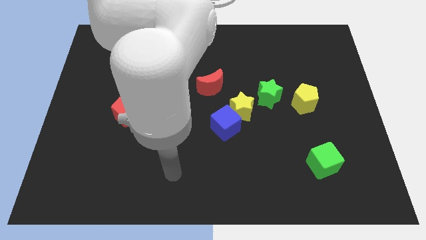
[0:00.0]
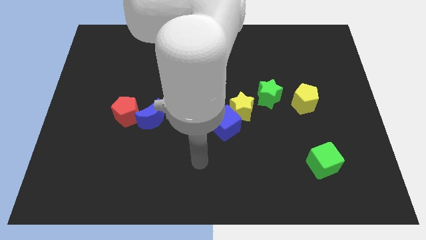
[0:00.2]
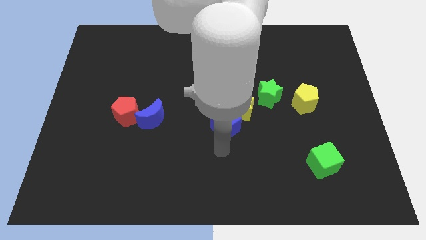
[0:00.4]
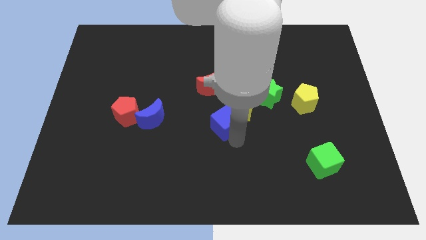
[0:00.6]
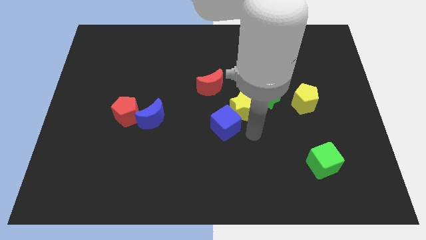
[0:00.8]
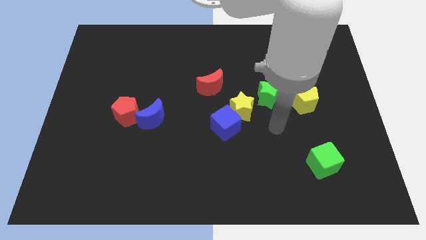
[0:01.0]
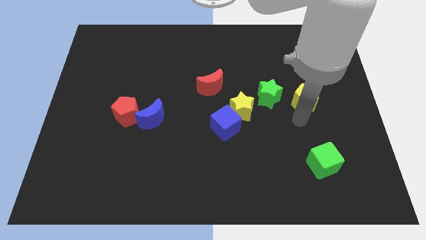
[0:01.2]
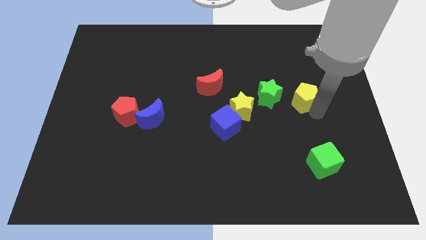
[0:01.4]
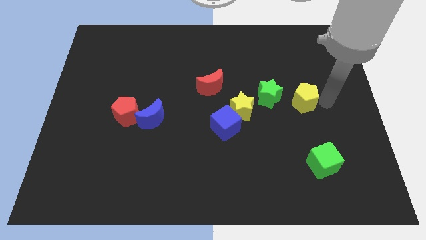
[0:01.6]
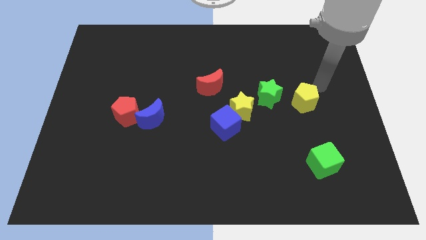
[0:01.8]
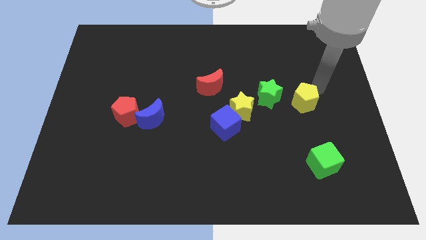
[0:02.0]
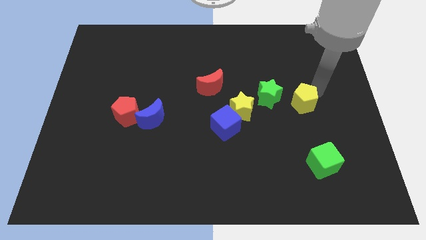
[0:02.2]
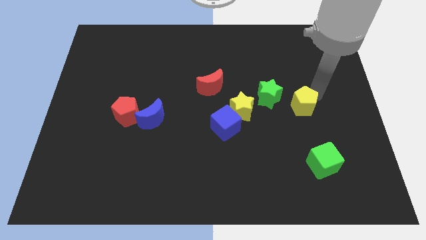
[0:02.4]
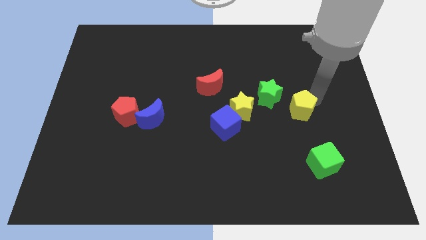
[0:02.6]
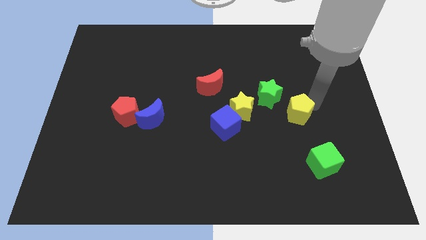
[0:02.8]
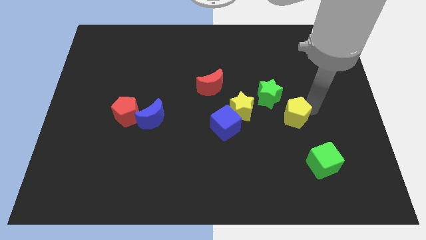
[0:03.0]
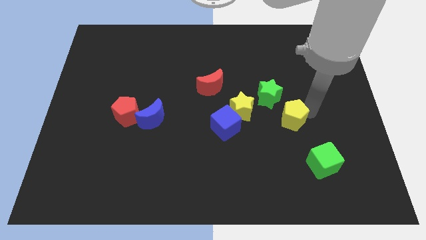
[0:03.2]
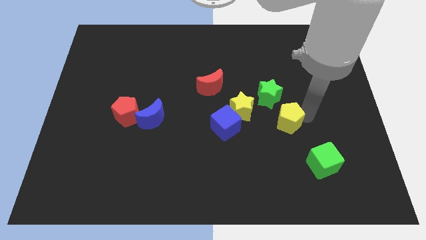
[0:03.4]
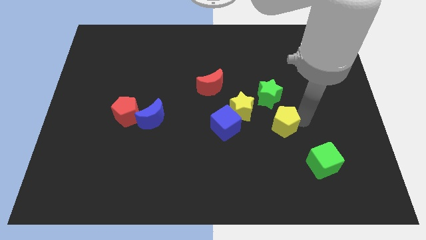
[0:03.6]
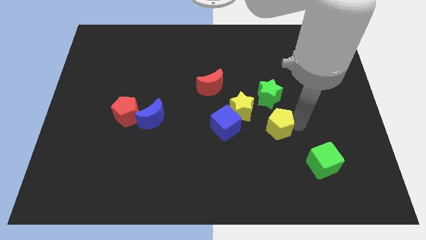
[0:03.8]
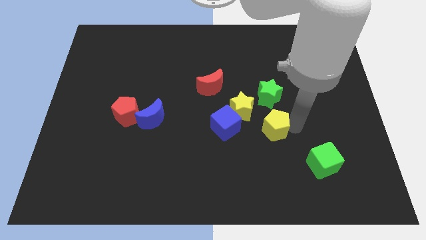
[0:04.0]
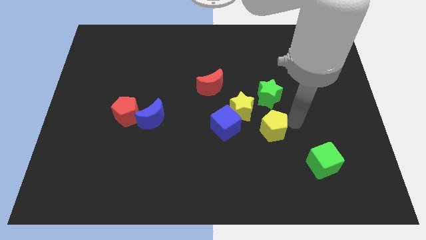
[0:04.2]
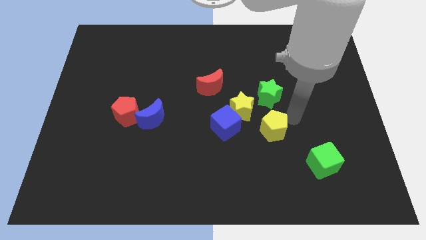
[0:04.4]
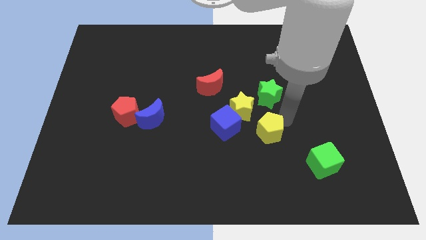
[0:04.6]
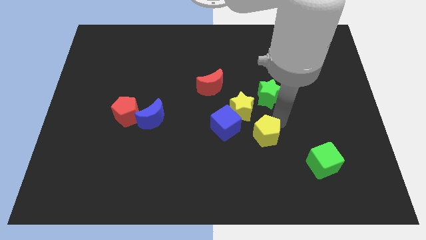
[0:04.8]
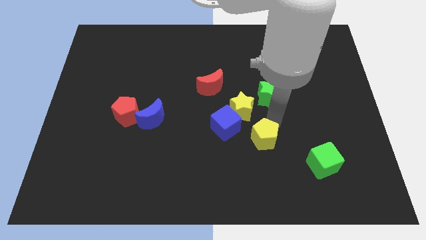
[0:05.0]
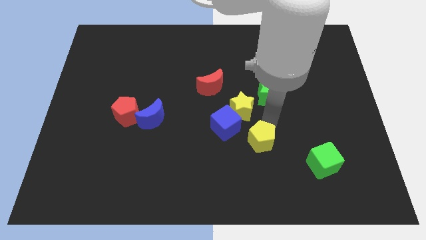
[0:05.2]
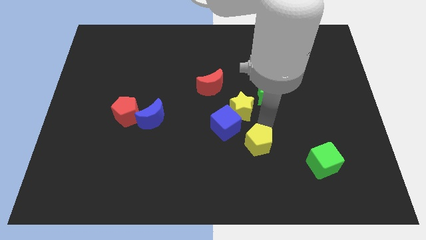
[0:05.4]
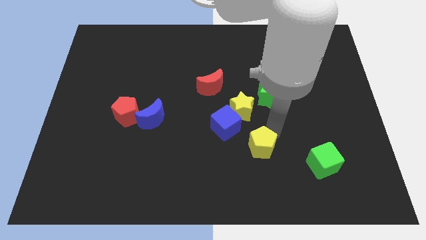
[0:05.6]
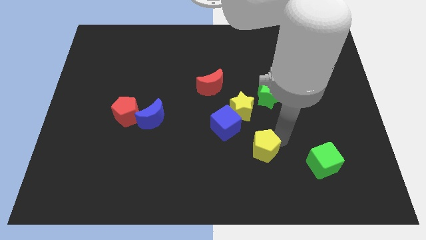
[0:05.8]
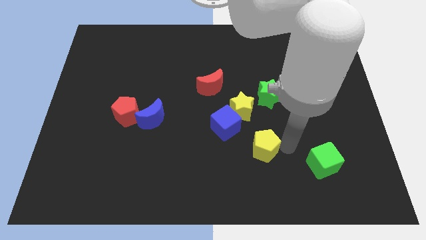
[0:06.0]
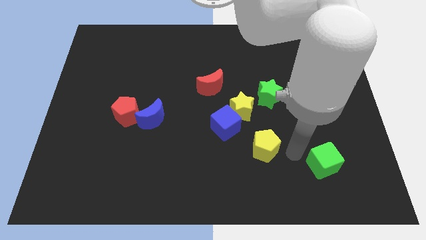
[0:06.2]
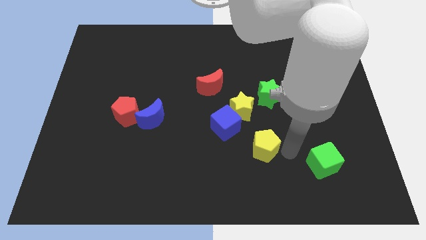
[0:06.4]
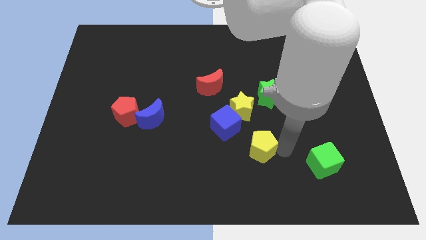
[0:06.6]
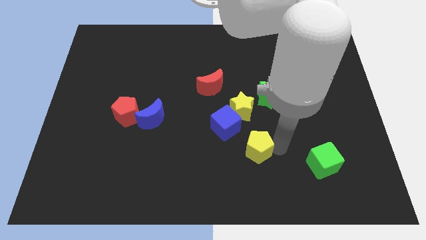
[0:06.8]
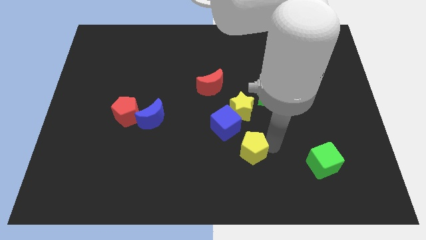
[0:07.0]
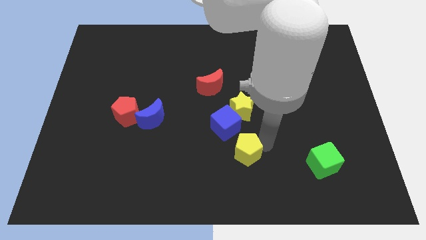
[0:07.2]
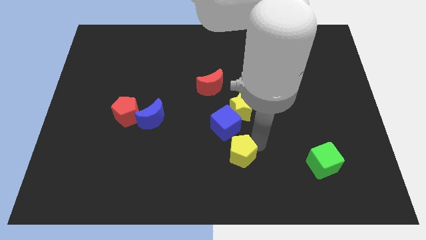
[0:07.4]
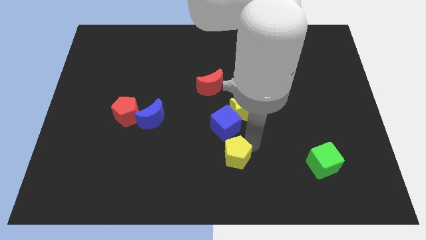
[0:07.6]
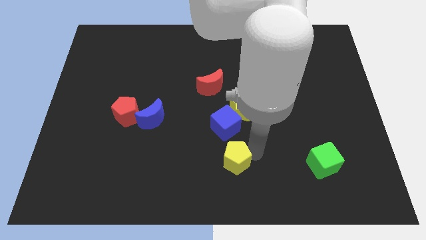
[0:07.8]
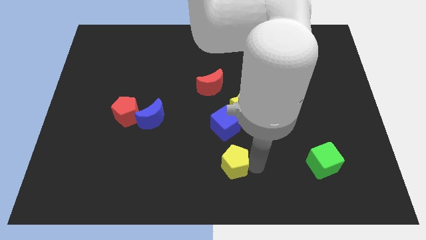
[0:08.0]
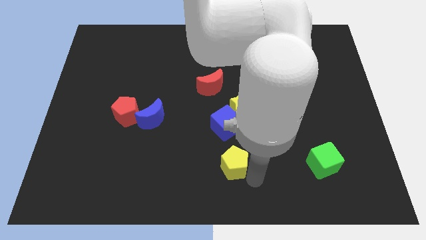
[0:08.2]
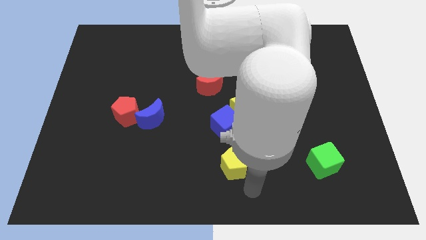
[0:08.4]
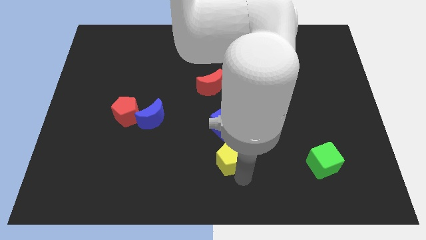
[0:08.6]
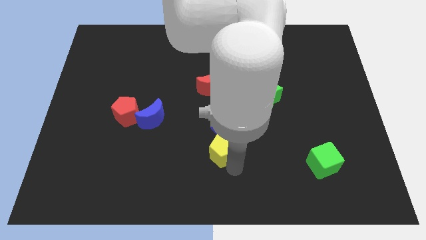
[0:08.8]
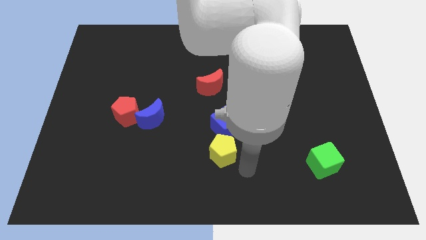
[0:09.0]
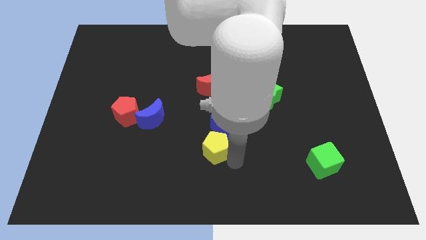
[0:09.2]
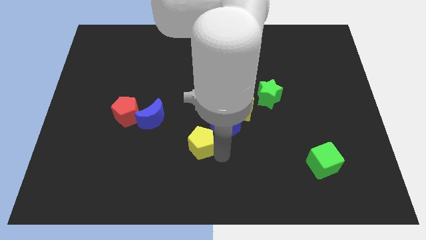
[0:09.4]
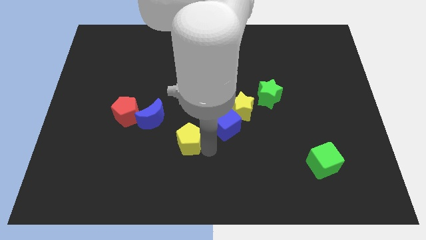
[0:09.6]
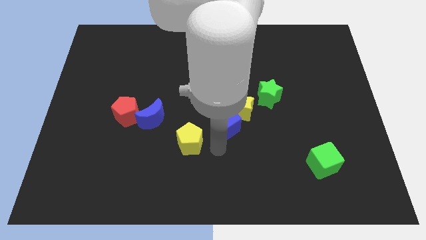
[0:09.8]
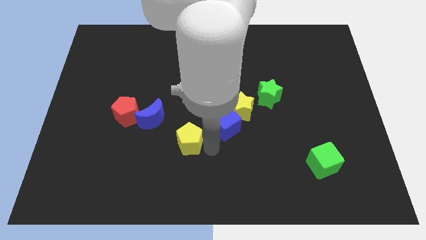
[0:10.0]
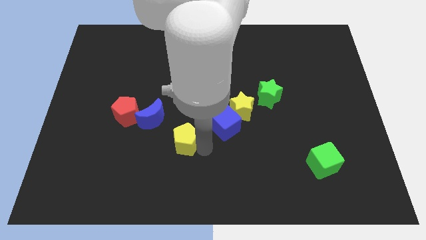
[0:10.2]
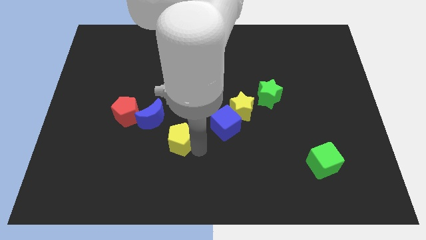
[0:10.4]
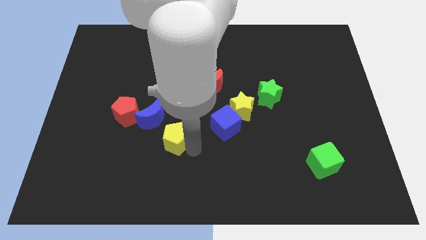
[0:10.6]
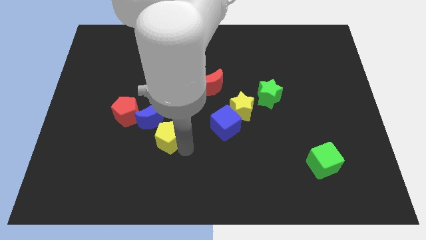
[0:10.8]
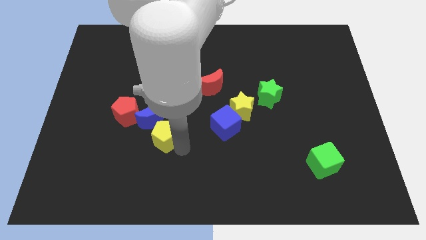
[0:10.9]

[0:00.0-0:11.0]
put the yellow pentagon towards the blue moon
